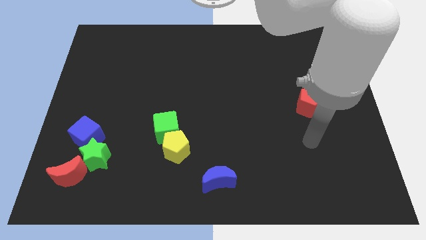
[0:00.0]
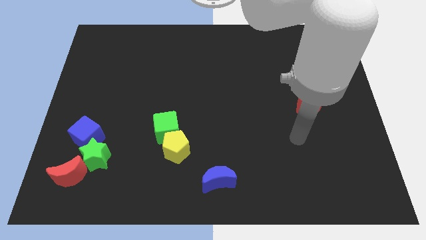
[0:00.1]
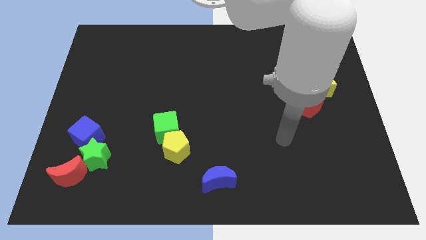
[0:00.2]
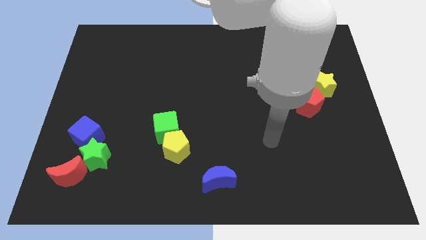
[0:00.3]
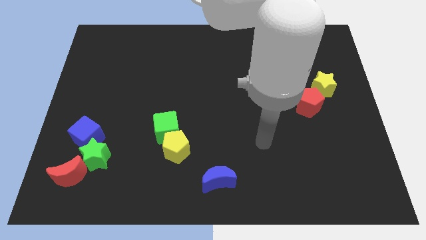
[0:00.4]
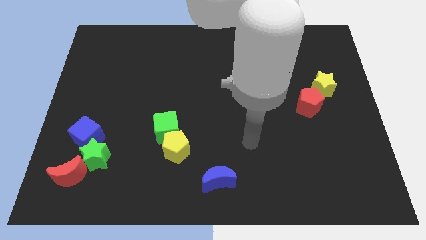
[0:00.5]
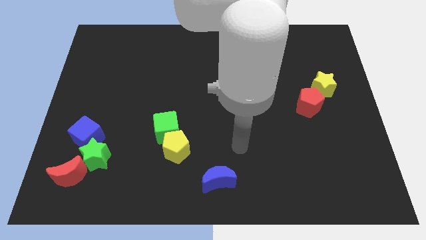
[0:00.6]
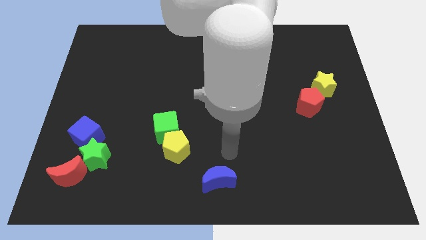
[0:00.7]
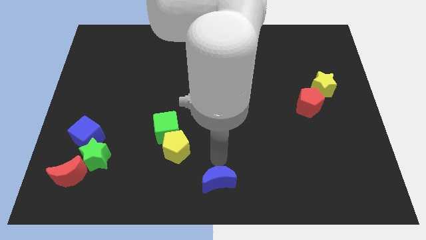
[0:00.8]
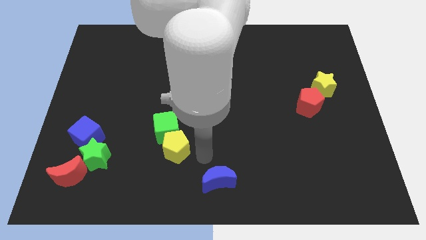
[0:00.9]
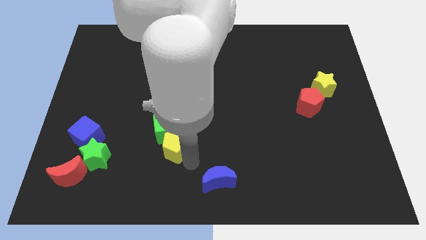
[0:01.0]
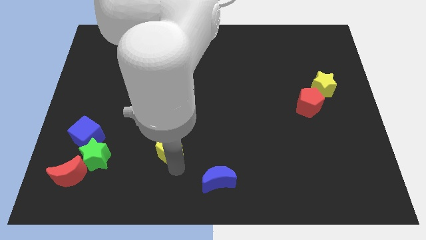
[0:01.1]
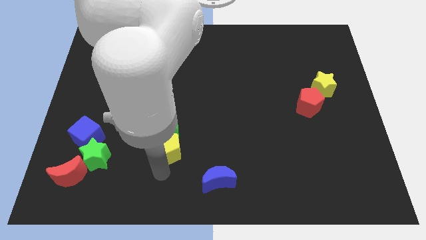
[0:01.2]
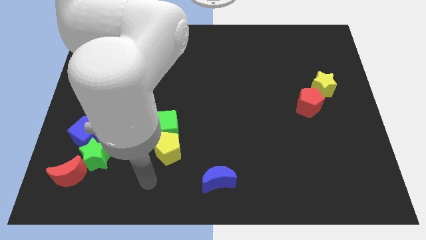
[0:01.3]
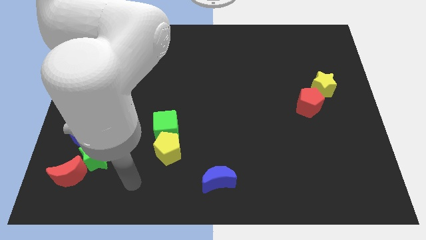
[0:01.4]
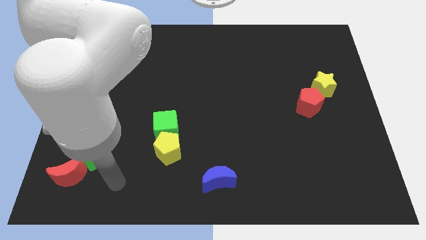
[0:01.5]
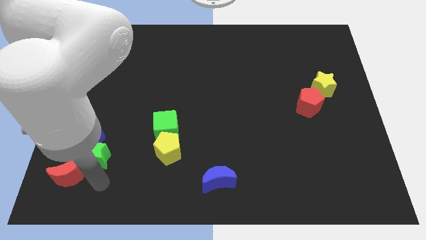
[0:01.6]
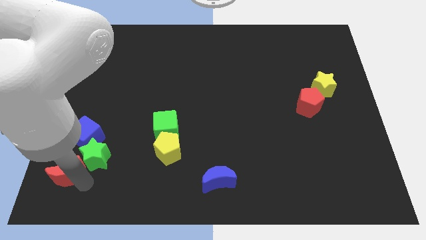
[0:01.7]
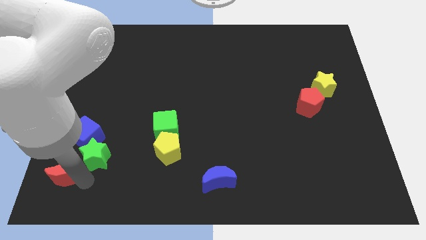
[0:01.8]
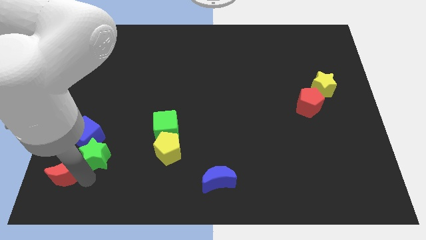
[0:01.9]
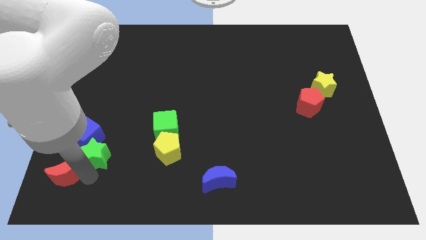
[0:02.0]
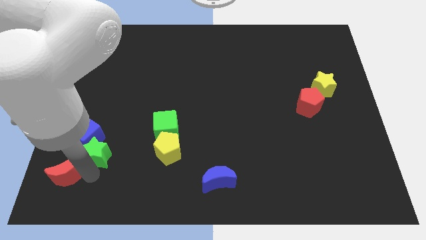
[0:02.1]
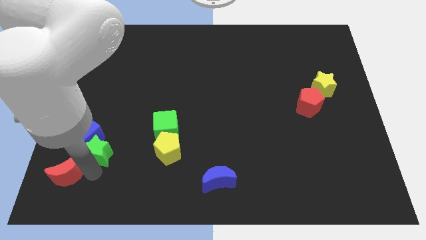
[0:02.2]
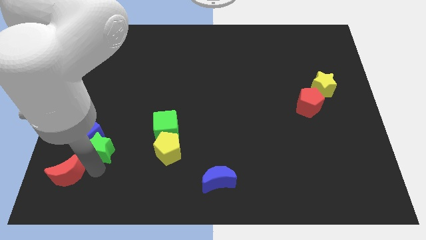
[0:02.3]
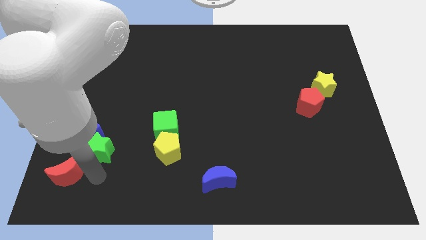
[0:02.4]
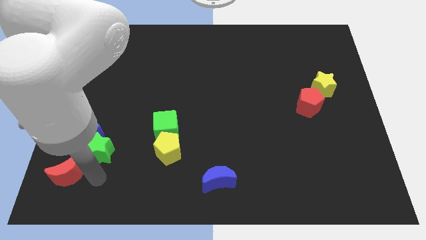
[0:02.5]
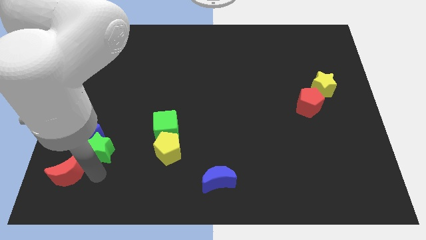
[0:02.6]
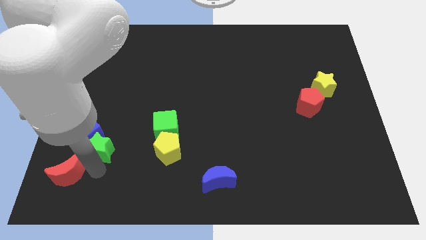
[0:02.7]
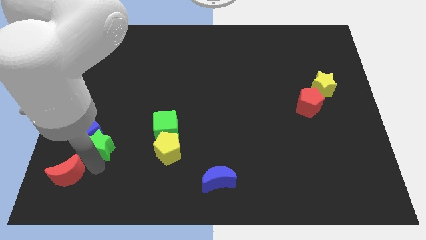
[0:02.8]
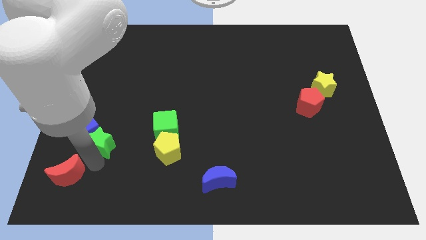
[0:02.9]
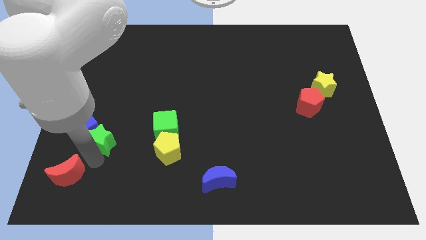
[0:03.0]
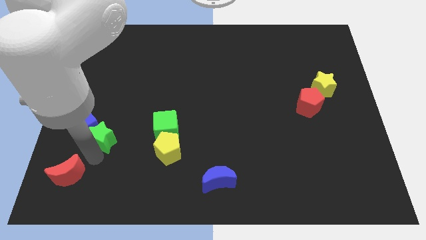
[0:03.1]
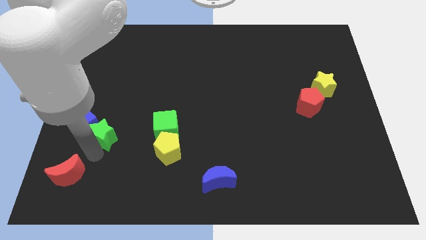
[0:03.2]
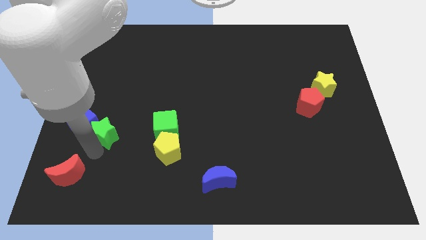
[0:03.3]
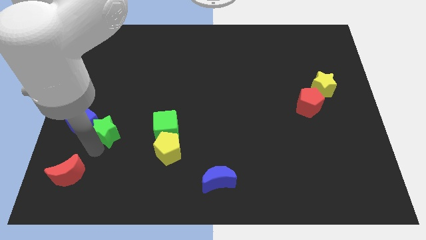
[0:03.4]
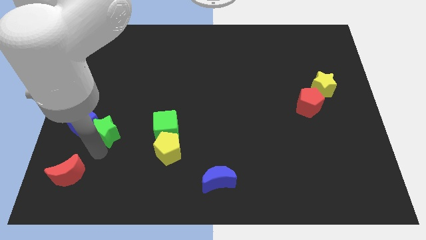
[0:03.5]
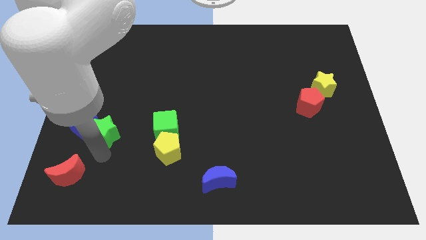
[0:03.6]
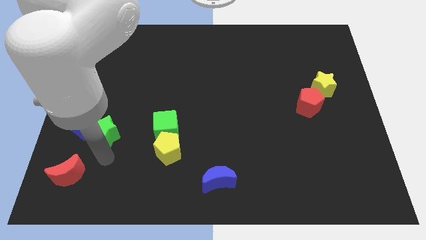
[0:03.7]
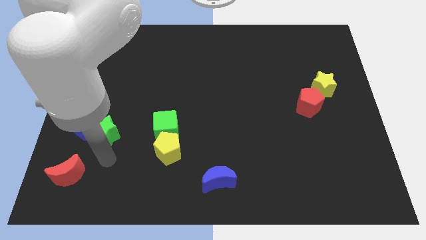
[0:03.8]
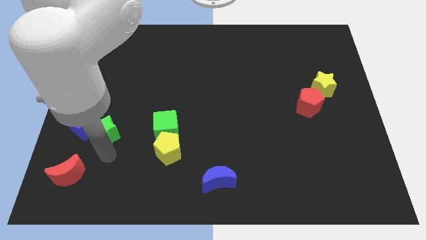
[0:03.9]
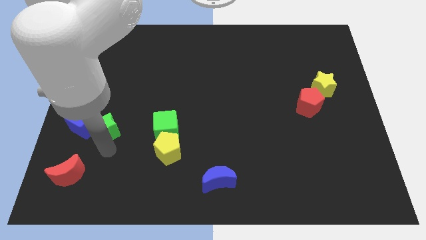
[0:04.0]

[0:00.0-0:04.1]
push the green star upwards somewhat

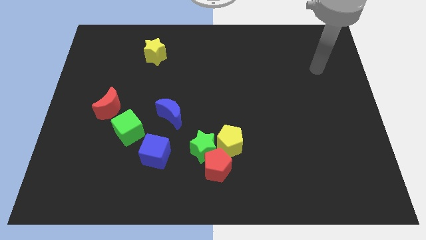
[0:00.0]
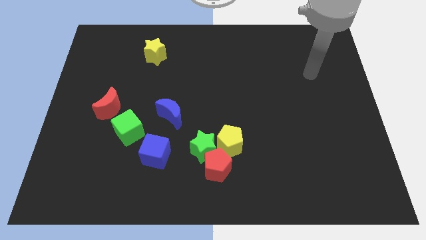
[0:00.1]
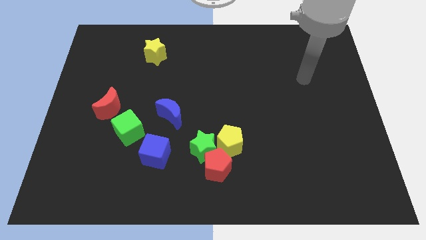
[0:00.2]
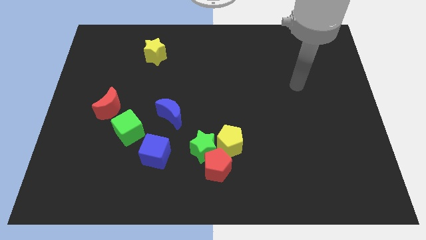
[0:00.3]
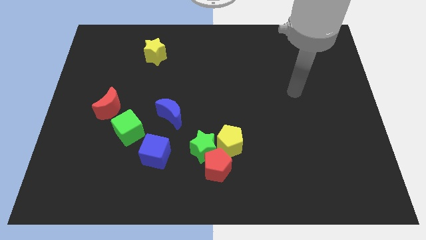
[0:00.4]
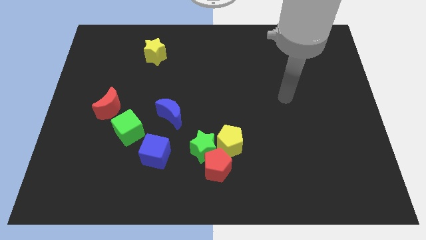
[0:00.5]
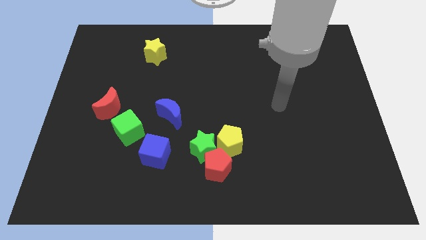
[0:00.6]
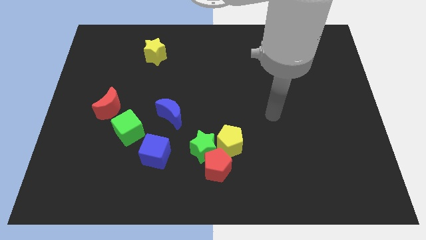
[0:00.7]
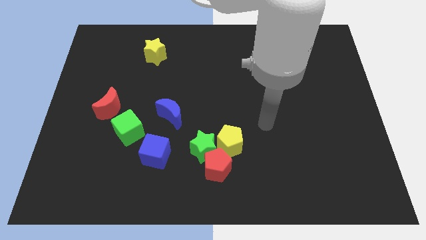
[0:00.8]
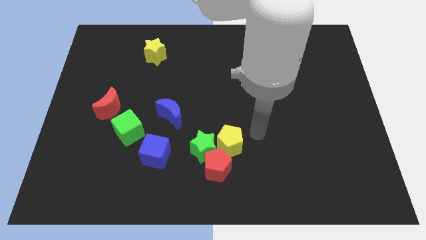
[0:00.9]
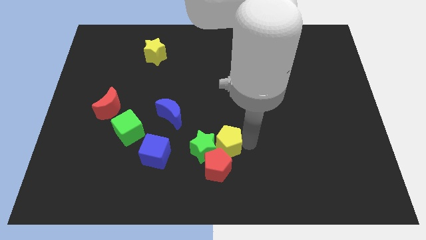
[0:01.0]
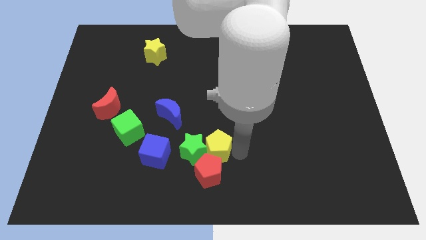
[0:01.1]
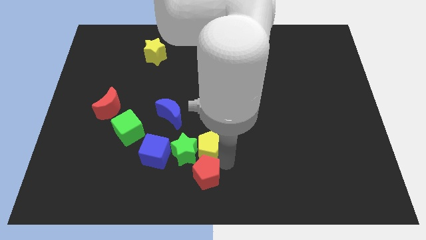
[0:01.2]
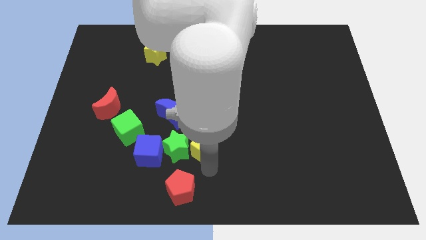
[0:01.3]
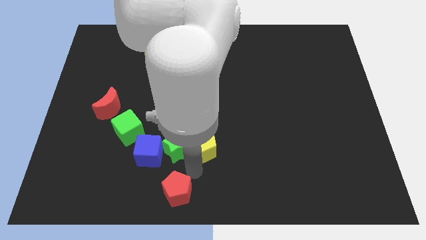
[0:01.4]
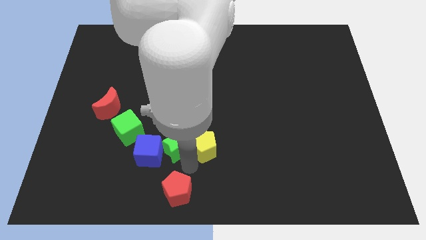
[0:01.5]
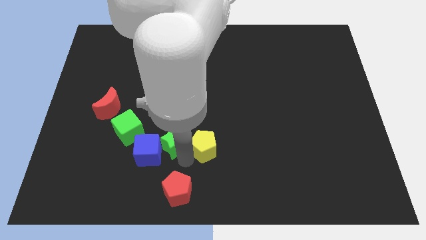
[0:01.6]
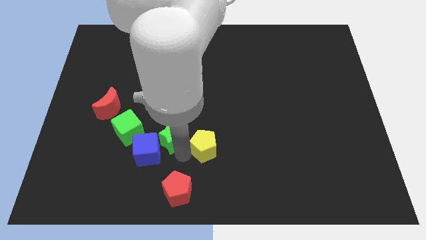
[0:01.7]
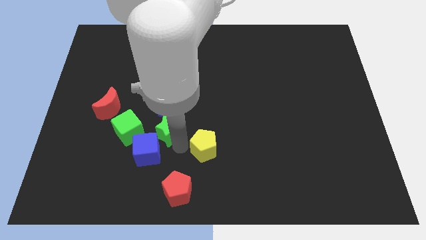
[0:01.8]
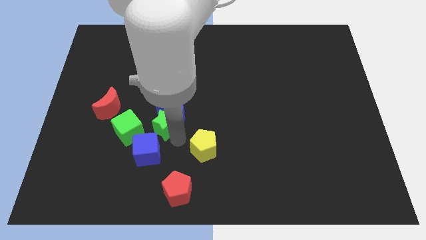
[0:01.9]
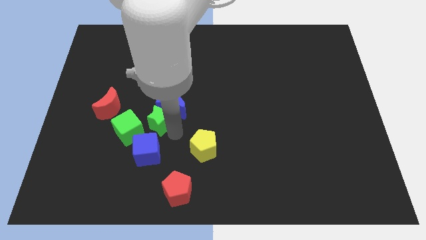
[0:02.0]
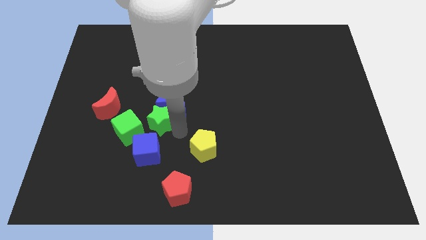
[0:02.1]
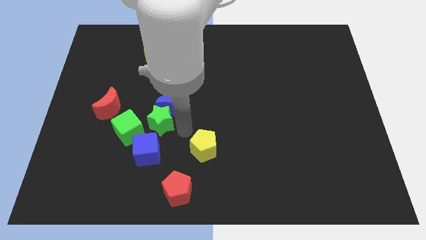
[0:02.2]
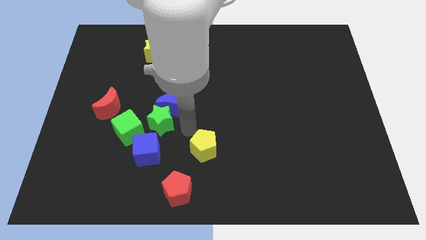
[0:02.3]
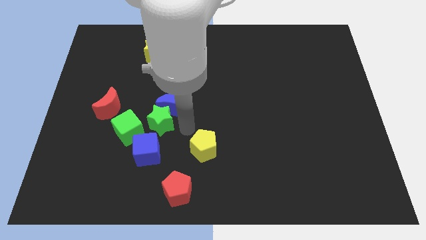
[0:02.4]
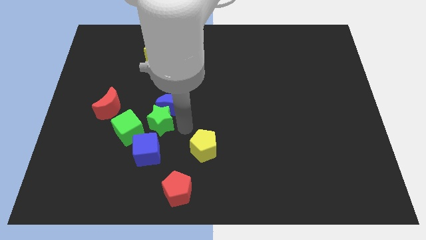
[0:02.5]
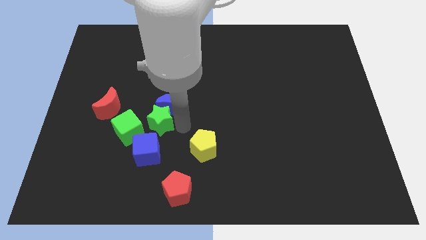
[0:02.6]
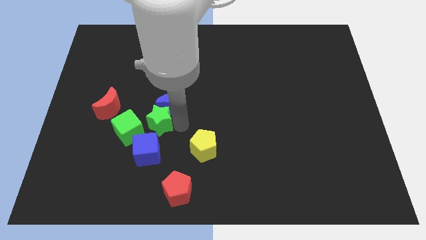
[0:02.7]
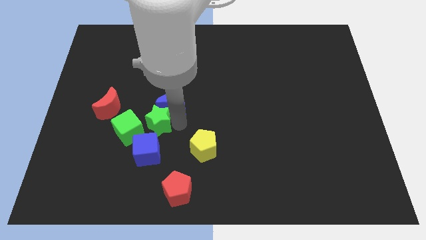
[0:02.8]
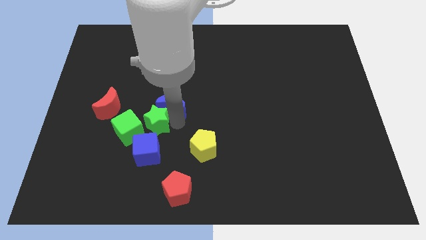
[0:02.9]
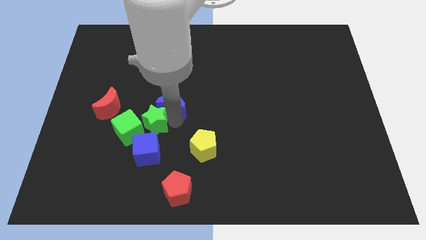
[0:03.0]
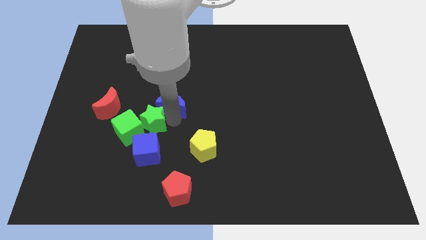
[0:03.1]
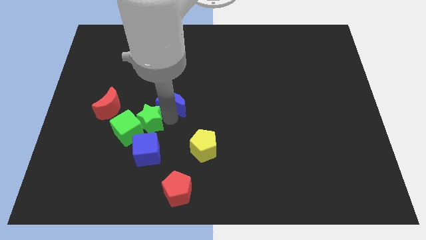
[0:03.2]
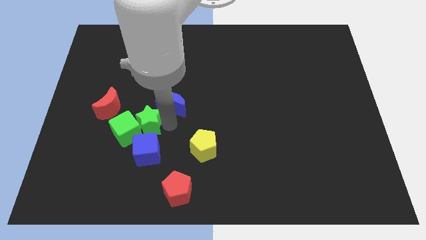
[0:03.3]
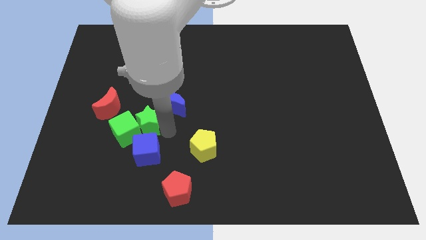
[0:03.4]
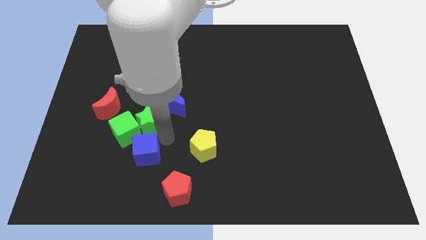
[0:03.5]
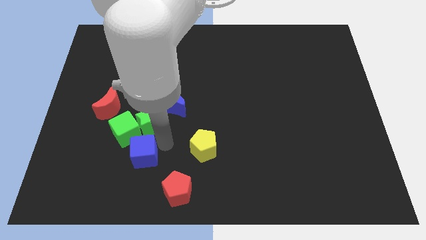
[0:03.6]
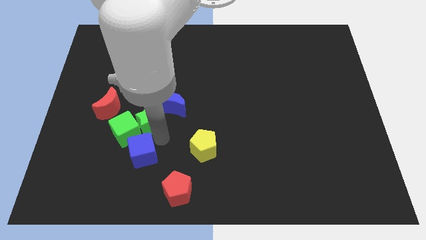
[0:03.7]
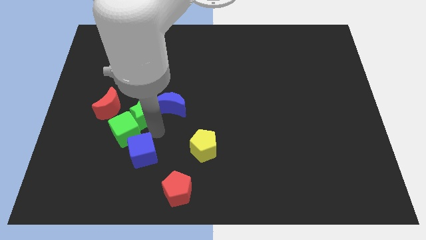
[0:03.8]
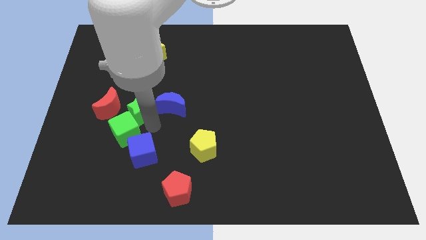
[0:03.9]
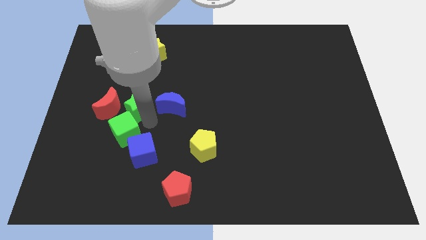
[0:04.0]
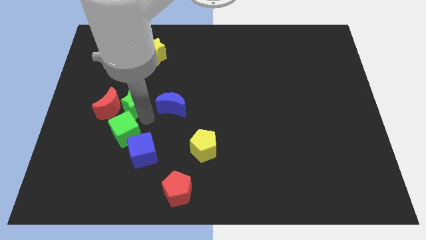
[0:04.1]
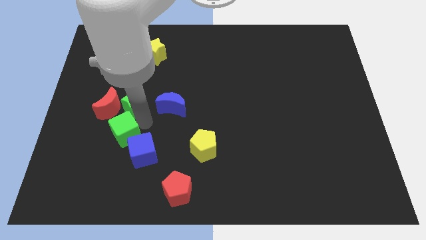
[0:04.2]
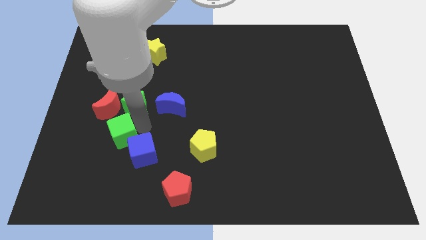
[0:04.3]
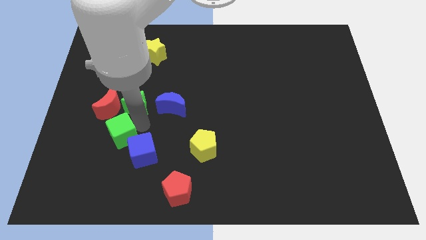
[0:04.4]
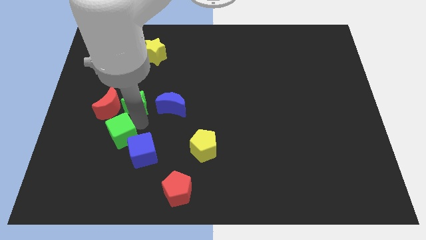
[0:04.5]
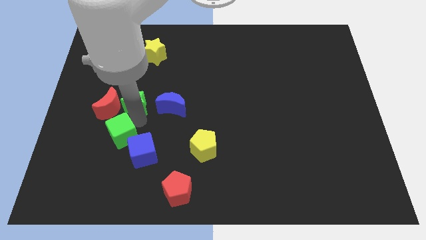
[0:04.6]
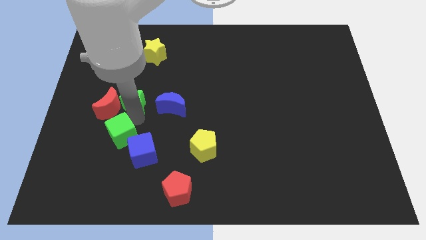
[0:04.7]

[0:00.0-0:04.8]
push the green star diagonally upwards and left
